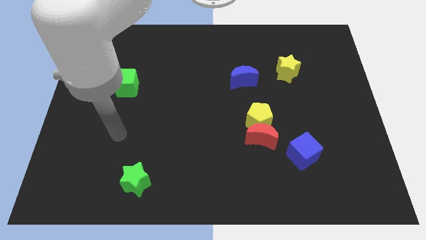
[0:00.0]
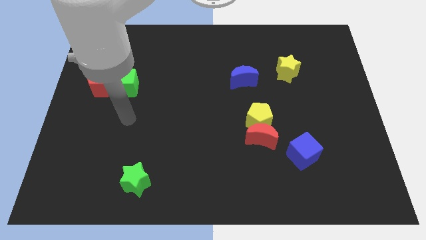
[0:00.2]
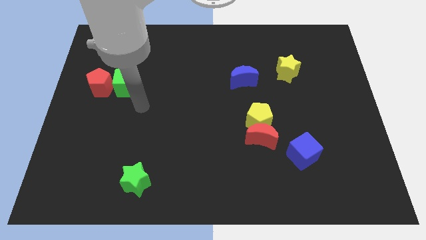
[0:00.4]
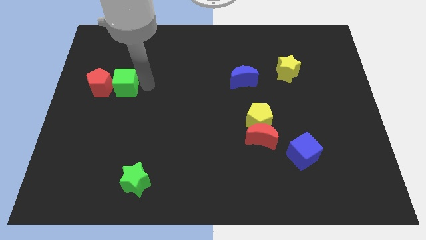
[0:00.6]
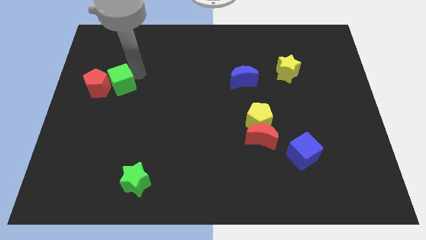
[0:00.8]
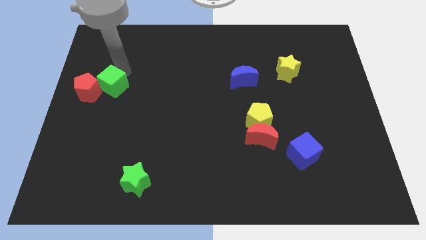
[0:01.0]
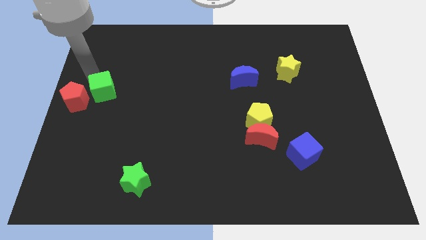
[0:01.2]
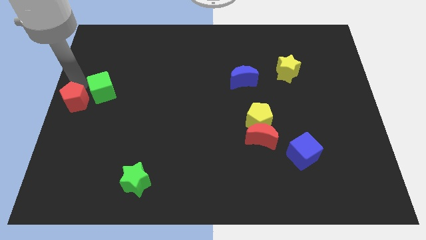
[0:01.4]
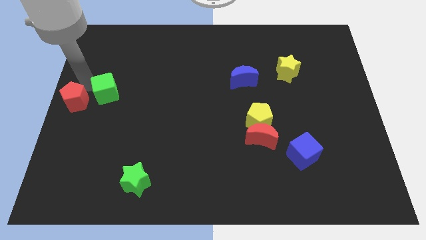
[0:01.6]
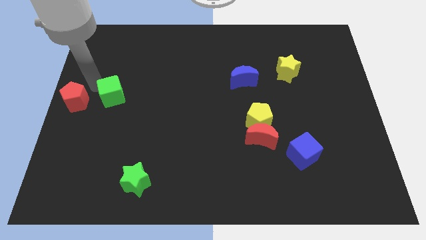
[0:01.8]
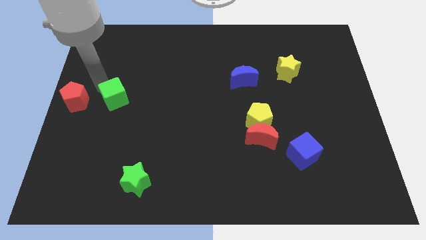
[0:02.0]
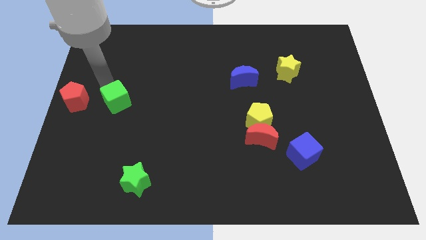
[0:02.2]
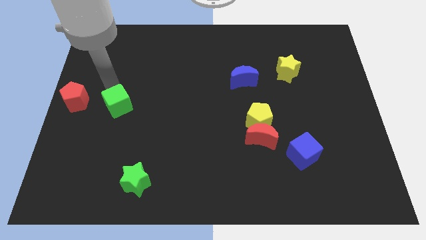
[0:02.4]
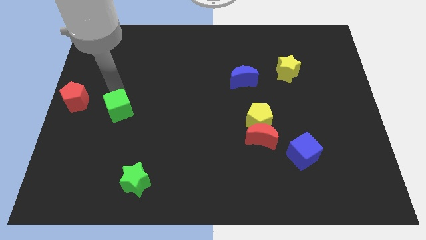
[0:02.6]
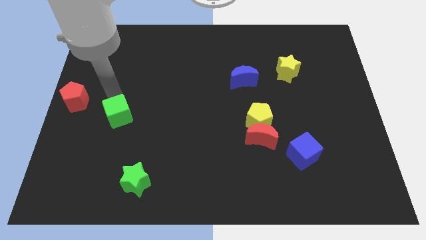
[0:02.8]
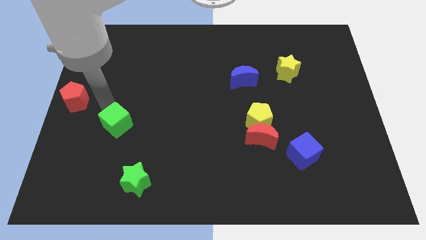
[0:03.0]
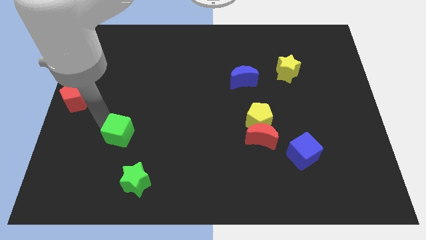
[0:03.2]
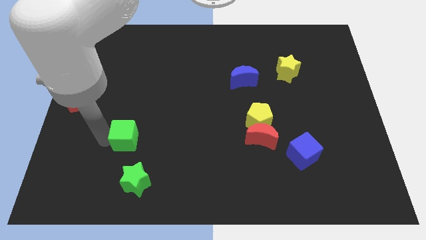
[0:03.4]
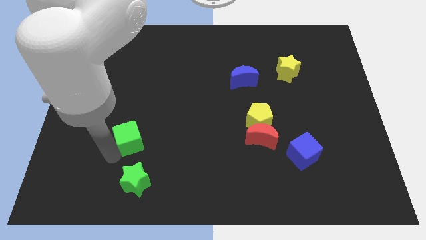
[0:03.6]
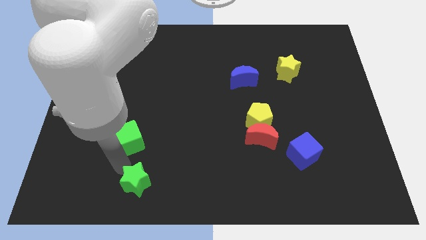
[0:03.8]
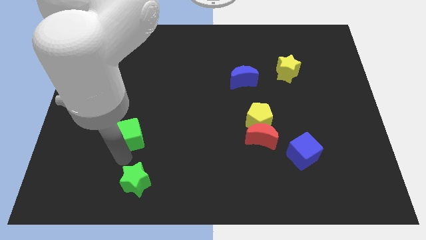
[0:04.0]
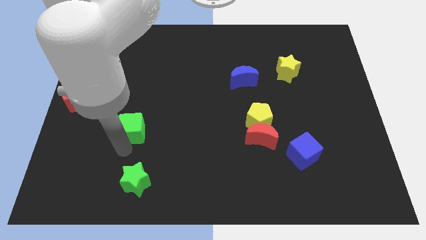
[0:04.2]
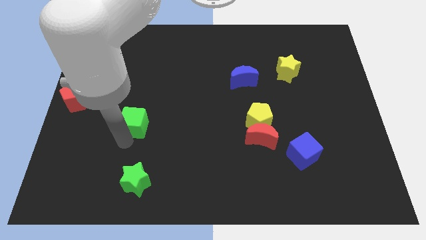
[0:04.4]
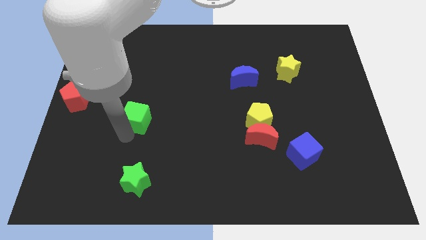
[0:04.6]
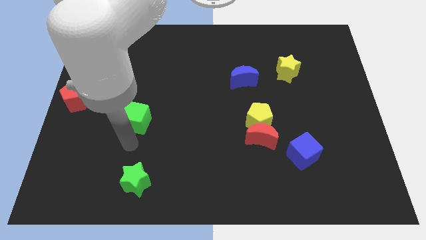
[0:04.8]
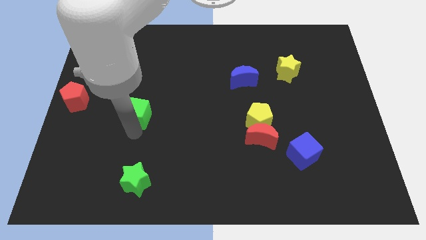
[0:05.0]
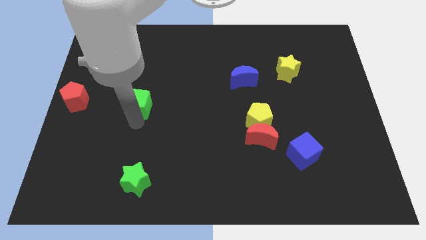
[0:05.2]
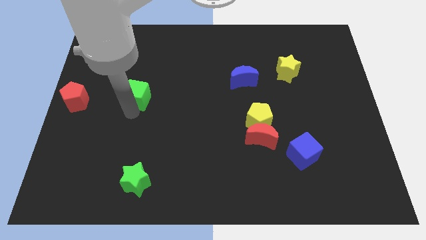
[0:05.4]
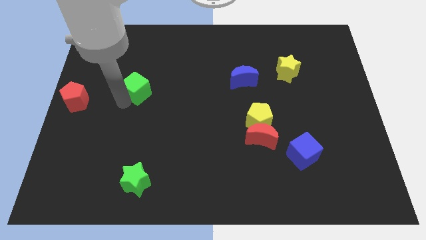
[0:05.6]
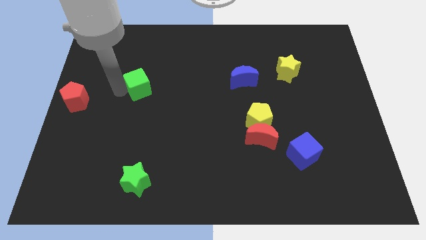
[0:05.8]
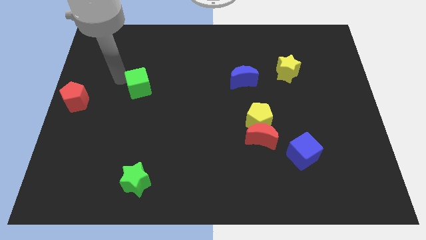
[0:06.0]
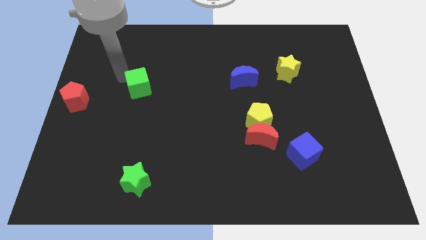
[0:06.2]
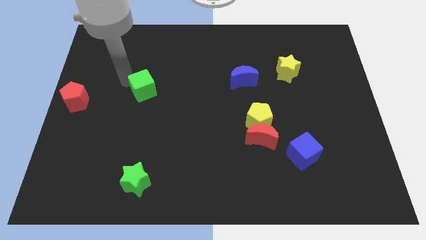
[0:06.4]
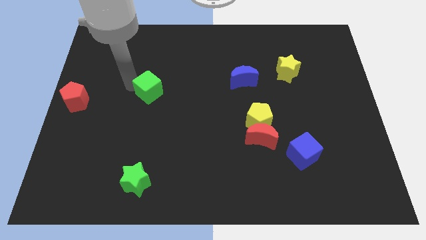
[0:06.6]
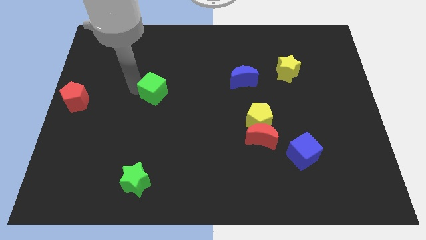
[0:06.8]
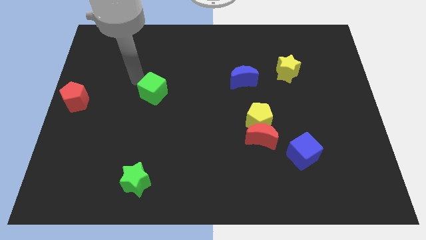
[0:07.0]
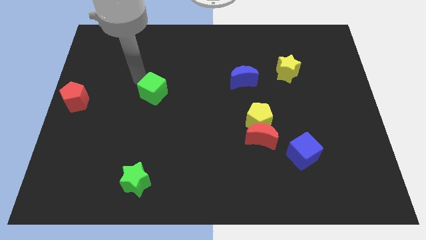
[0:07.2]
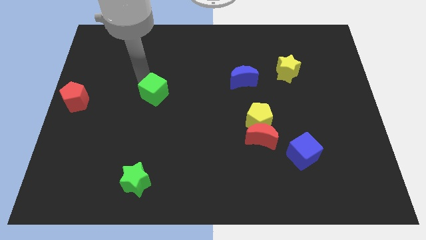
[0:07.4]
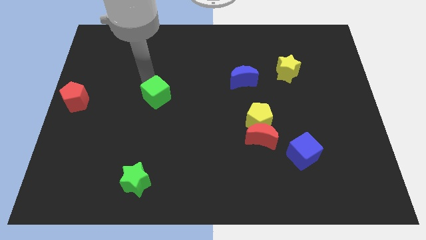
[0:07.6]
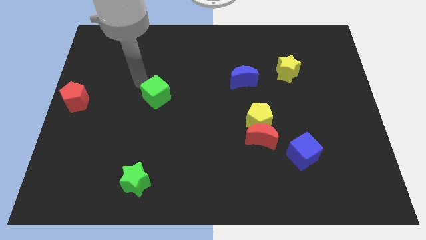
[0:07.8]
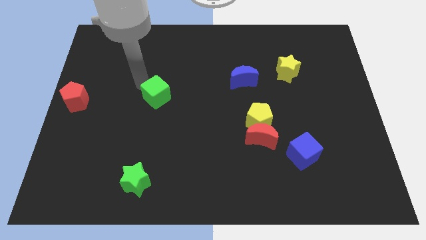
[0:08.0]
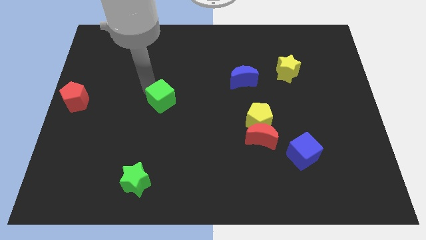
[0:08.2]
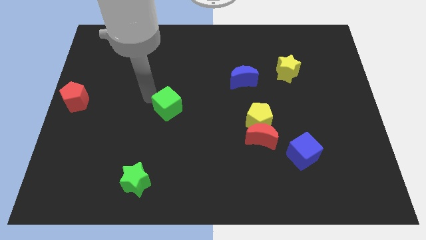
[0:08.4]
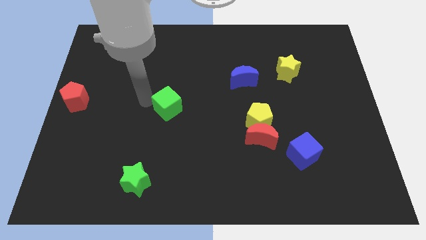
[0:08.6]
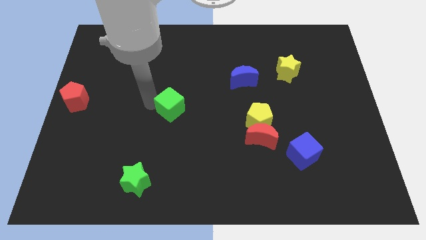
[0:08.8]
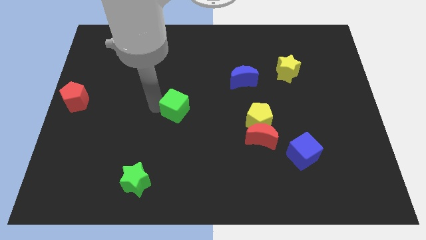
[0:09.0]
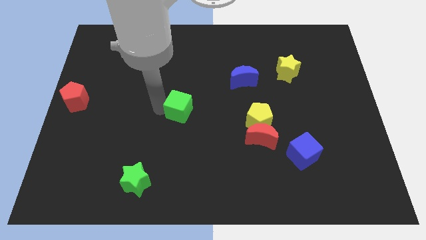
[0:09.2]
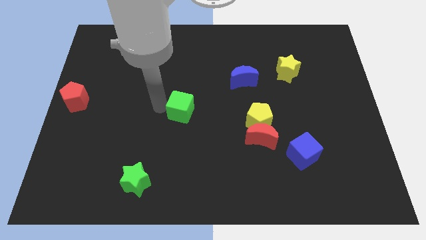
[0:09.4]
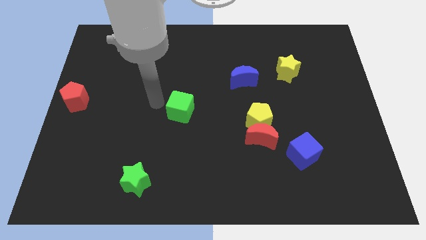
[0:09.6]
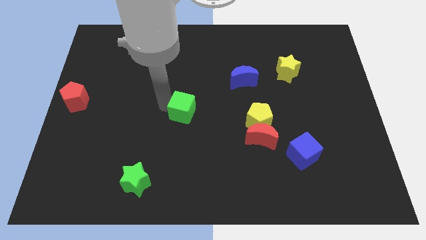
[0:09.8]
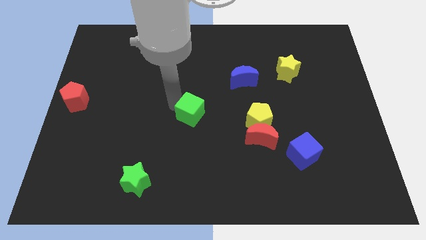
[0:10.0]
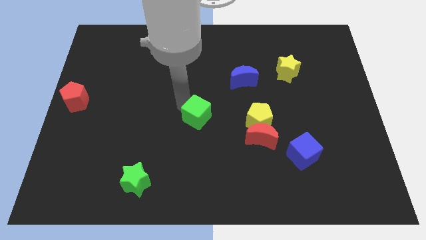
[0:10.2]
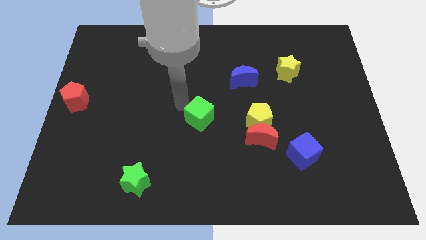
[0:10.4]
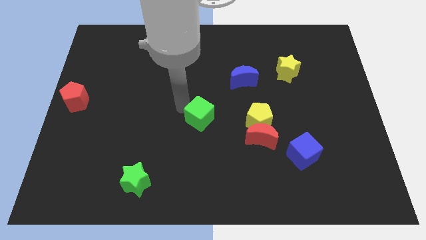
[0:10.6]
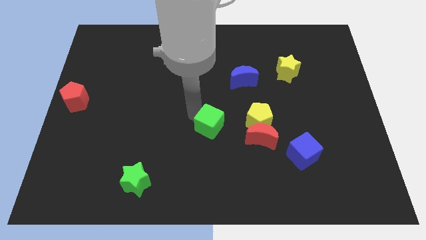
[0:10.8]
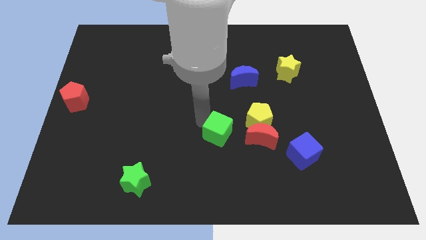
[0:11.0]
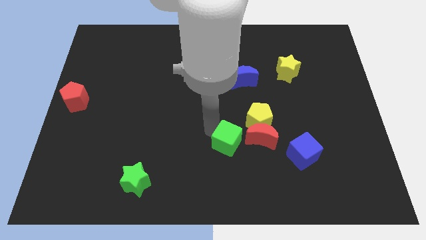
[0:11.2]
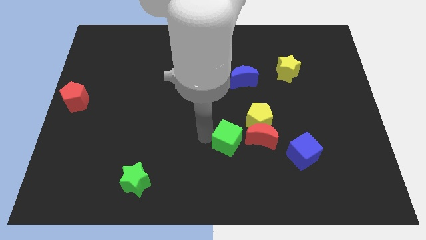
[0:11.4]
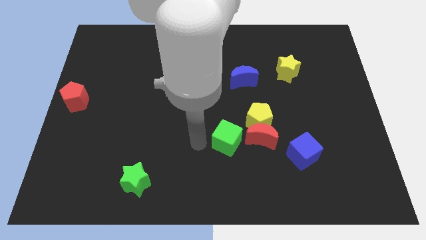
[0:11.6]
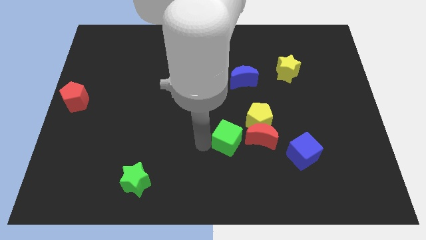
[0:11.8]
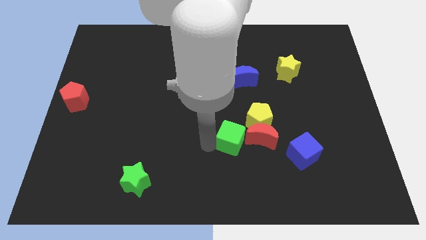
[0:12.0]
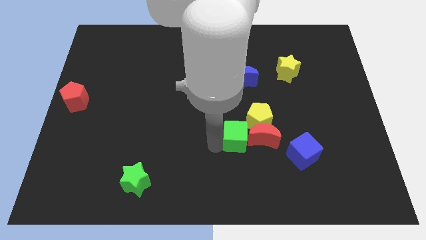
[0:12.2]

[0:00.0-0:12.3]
put the green cube to the red moon
